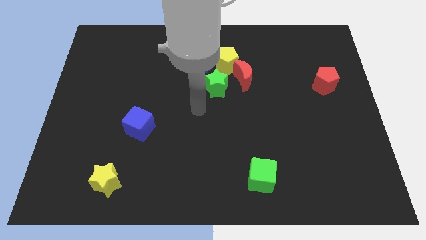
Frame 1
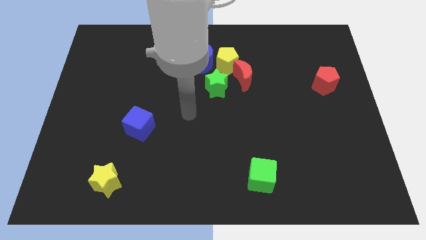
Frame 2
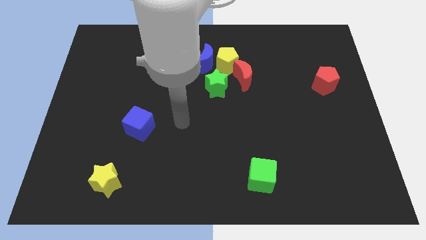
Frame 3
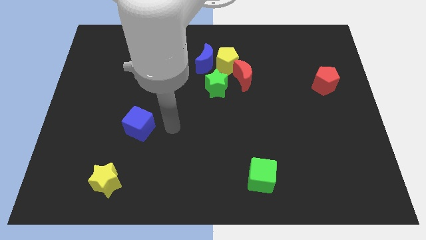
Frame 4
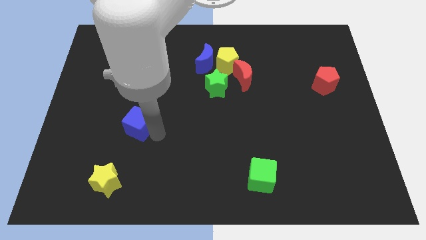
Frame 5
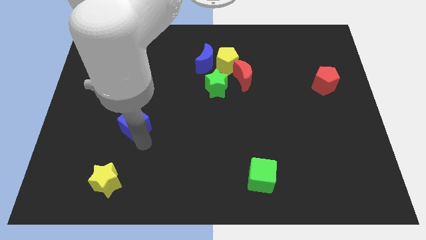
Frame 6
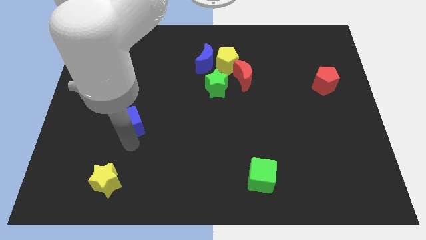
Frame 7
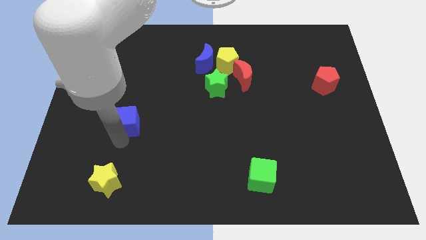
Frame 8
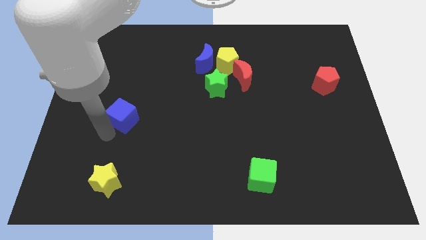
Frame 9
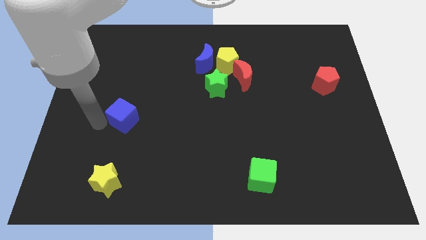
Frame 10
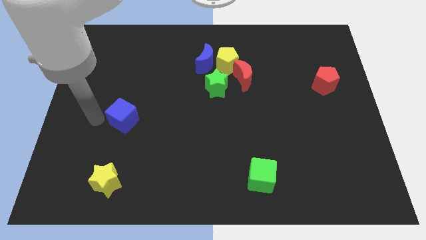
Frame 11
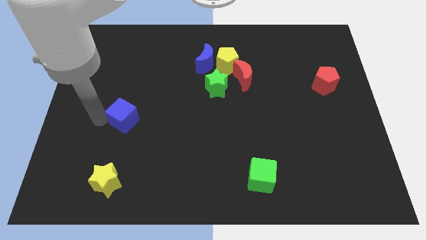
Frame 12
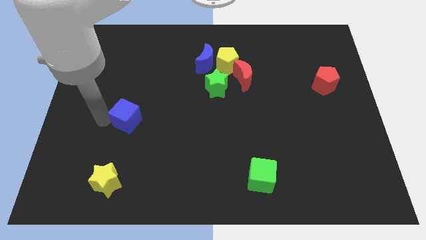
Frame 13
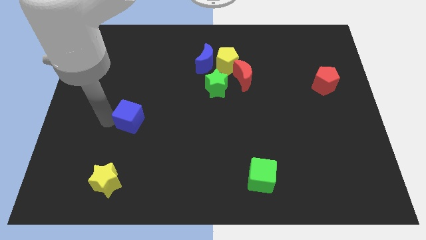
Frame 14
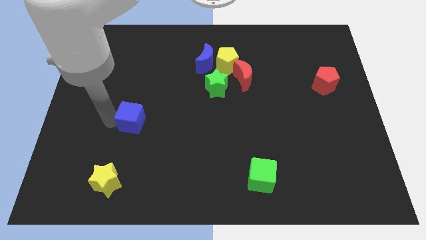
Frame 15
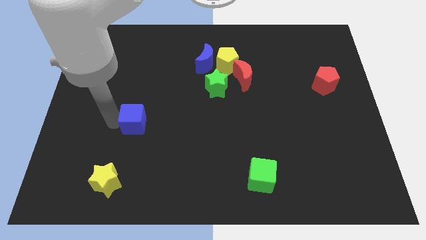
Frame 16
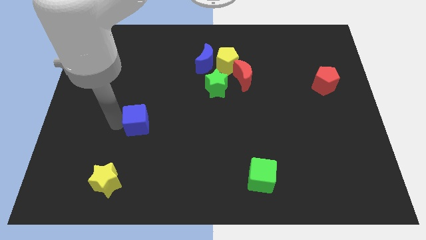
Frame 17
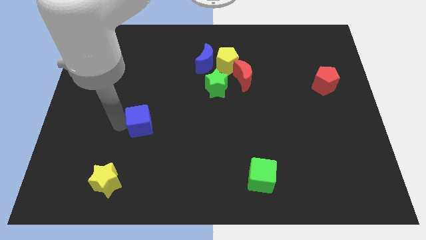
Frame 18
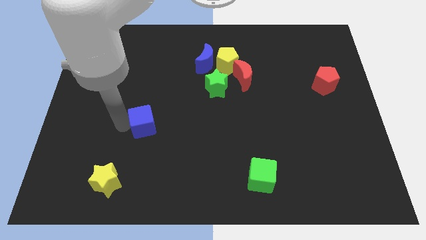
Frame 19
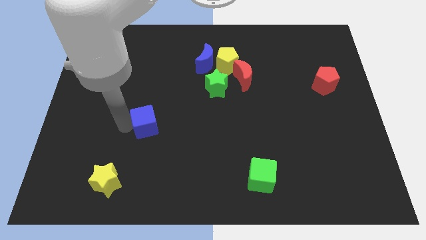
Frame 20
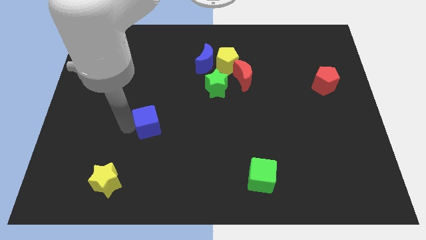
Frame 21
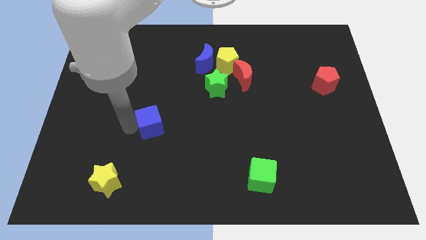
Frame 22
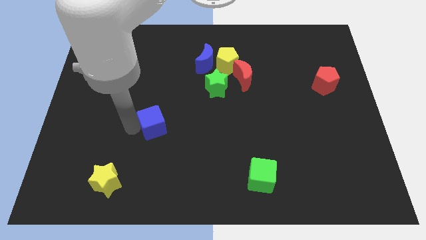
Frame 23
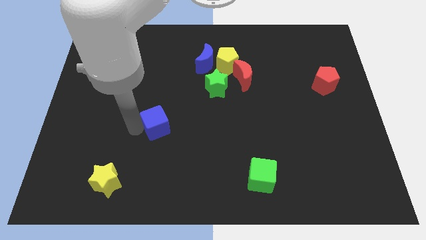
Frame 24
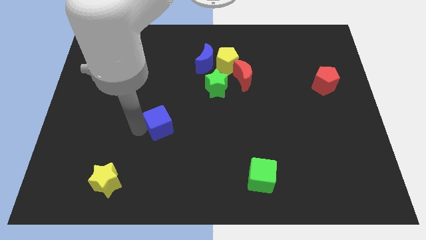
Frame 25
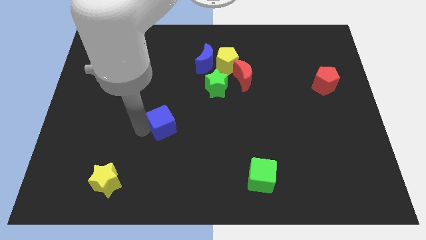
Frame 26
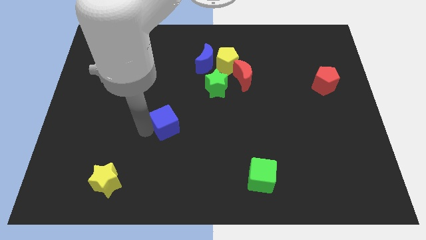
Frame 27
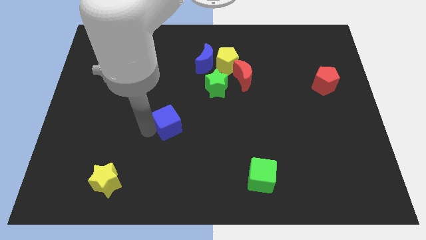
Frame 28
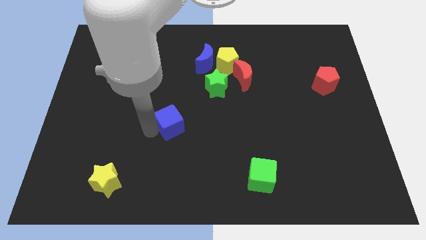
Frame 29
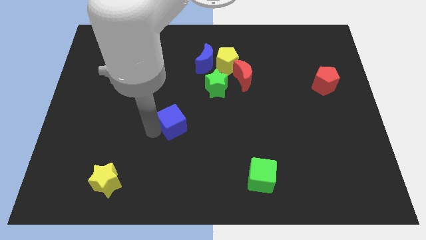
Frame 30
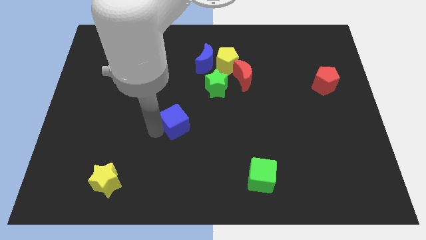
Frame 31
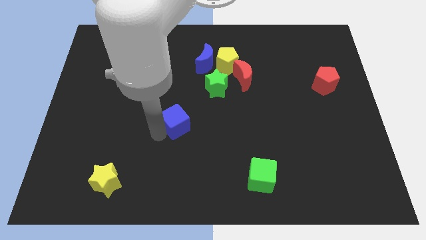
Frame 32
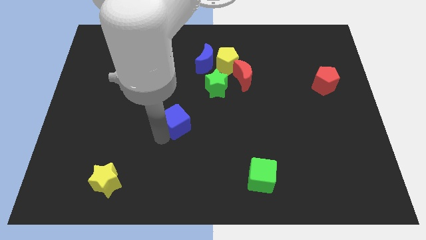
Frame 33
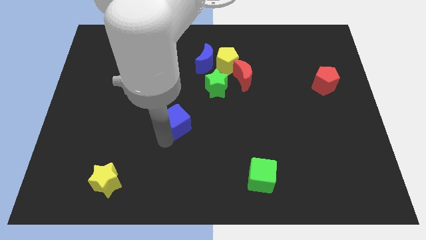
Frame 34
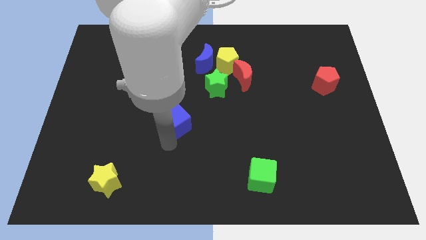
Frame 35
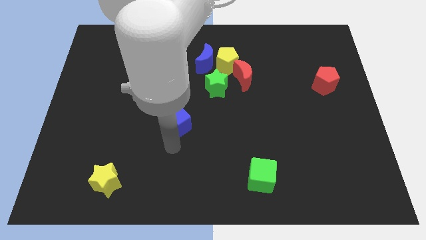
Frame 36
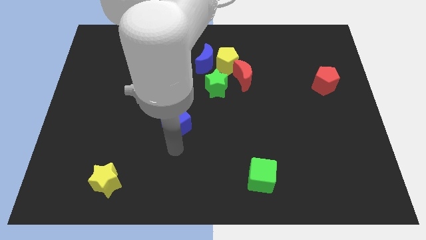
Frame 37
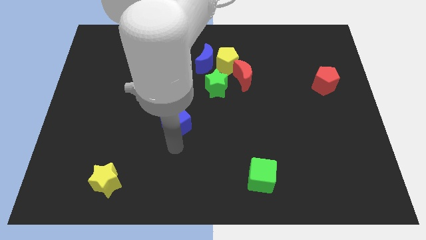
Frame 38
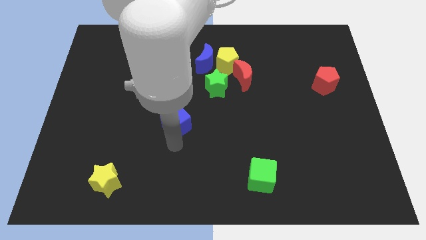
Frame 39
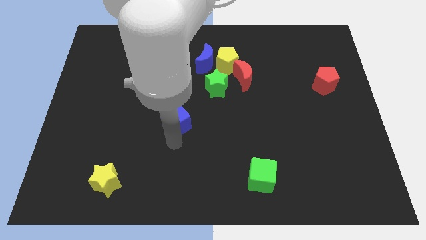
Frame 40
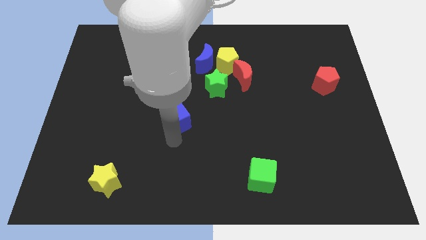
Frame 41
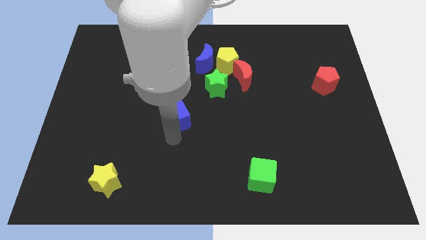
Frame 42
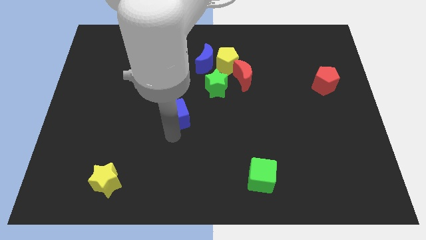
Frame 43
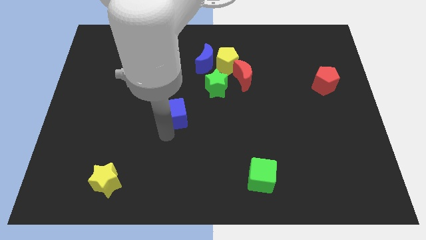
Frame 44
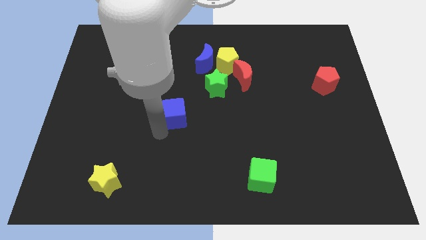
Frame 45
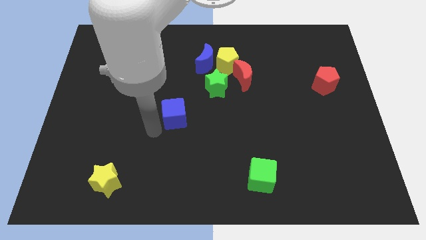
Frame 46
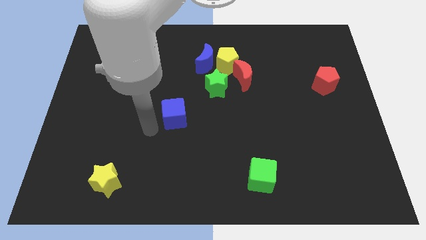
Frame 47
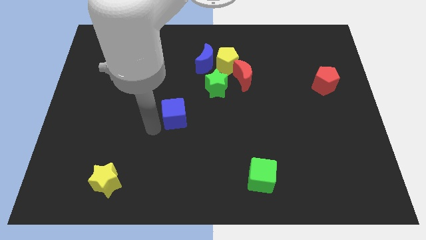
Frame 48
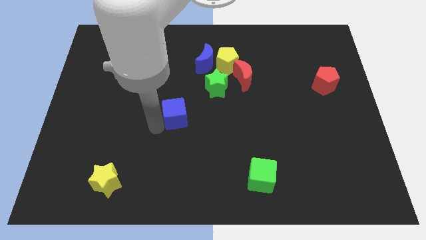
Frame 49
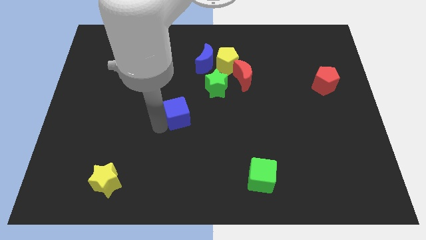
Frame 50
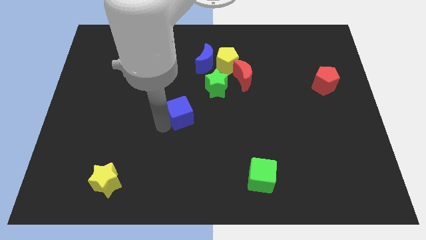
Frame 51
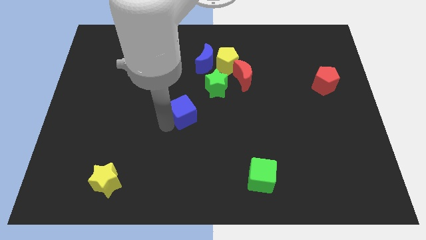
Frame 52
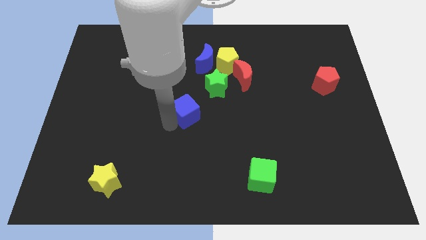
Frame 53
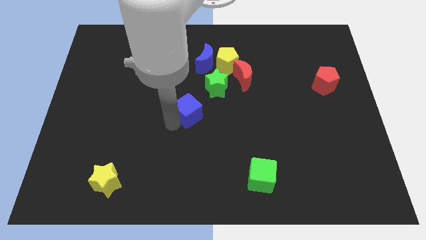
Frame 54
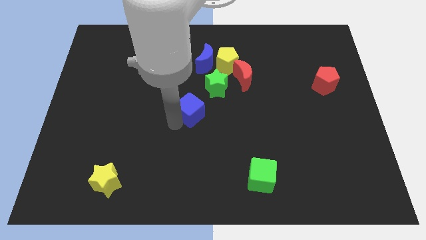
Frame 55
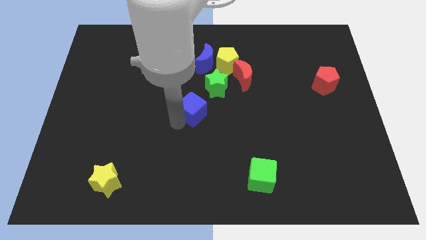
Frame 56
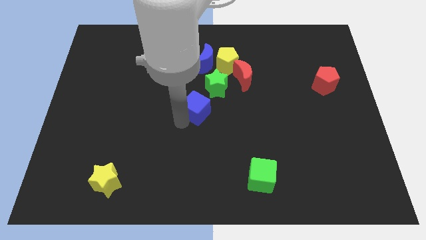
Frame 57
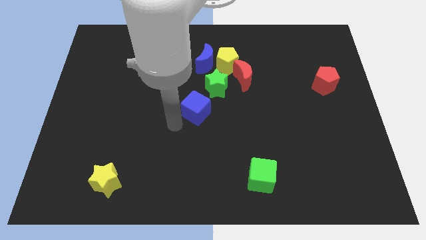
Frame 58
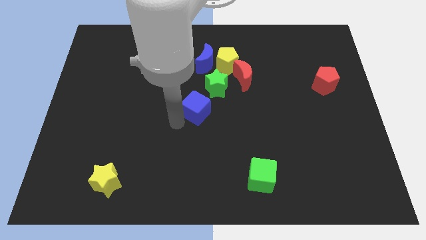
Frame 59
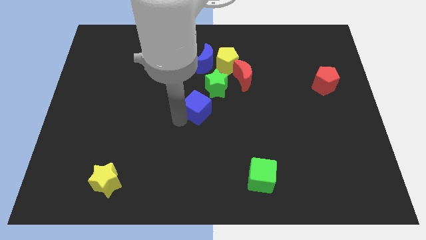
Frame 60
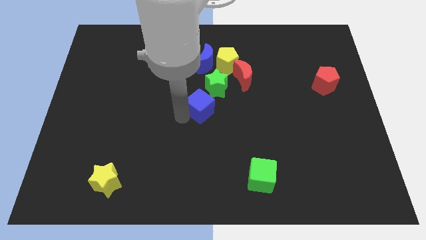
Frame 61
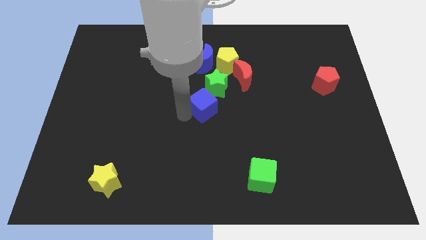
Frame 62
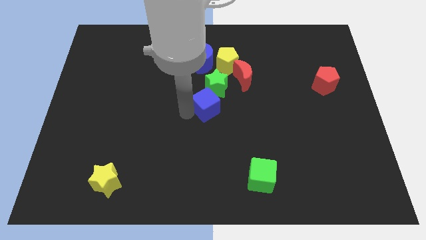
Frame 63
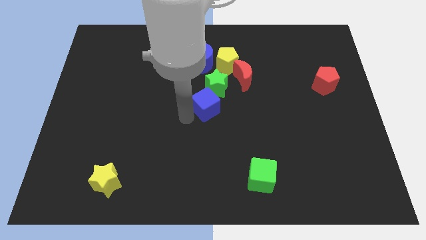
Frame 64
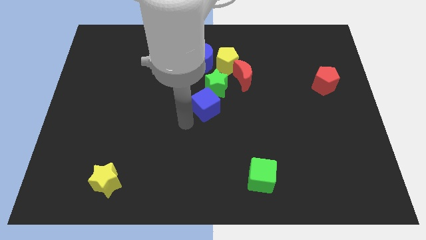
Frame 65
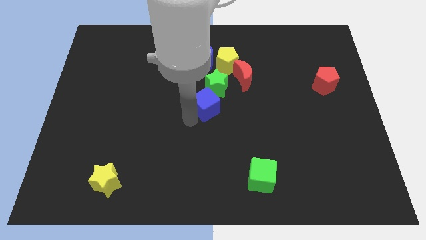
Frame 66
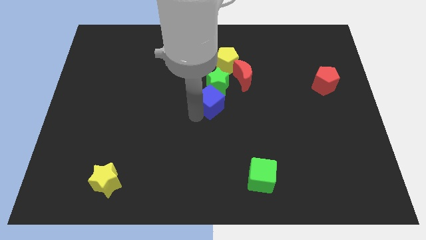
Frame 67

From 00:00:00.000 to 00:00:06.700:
put the blue cube to the bottom left side of the red moon
